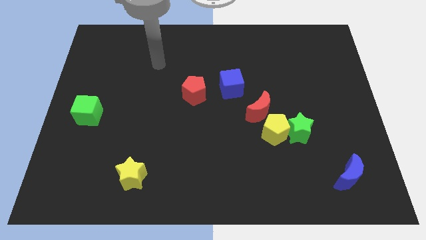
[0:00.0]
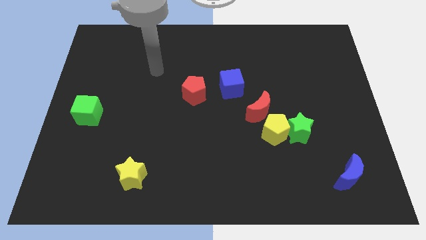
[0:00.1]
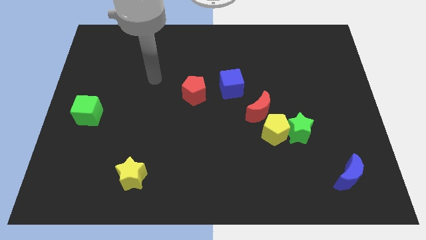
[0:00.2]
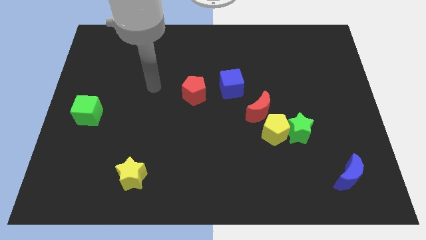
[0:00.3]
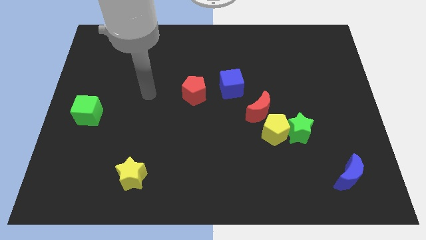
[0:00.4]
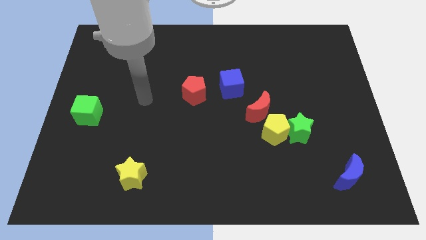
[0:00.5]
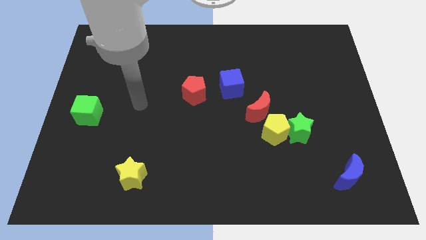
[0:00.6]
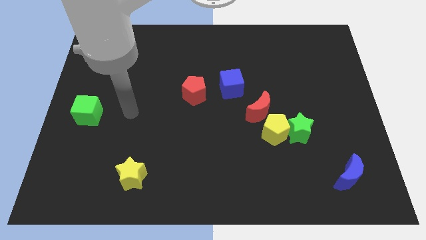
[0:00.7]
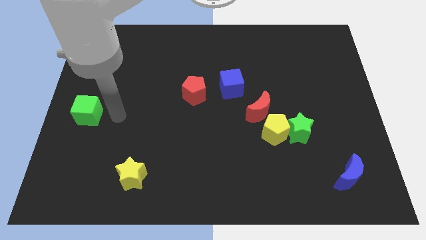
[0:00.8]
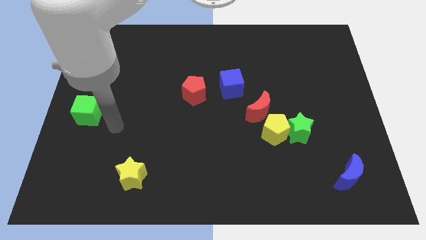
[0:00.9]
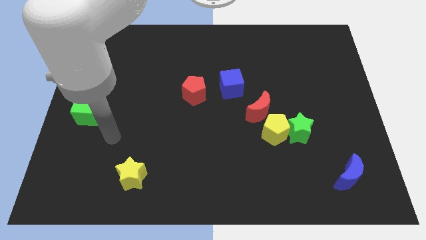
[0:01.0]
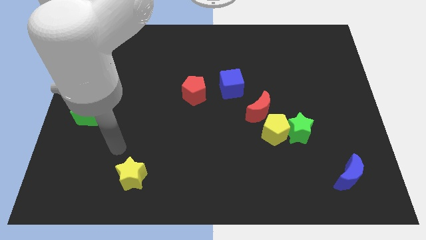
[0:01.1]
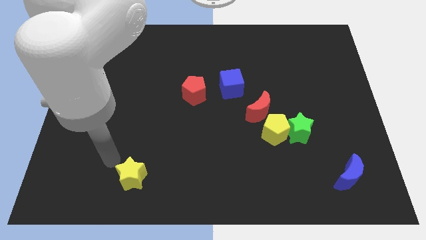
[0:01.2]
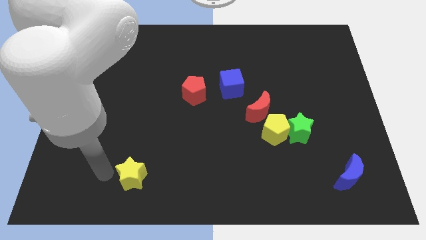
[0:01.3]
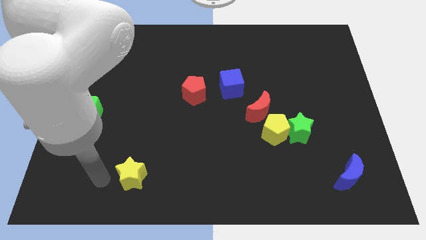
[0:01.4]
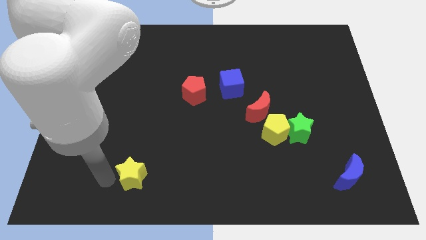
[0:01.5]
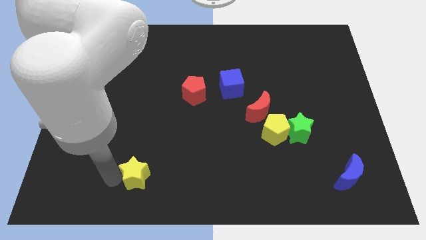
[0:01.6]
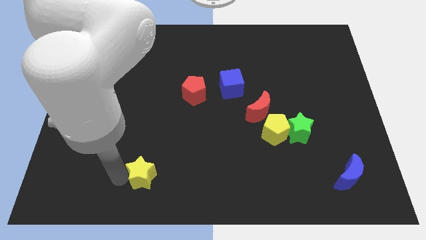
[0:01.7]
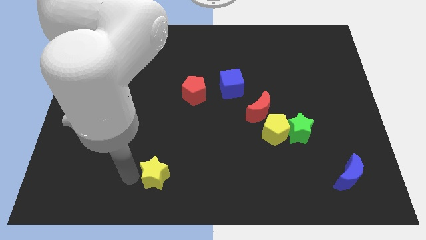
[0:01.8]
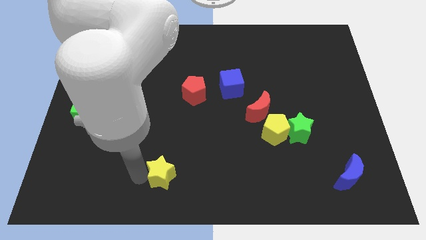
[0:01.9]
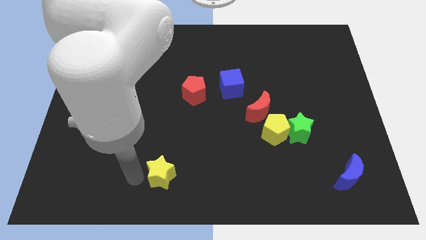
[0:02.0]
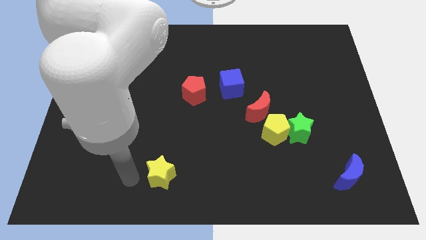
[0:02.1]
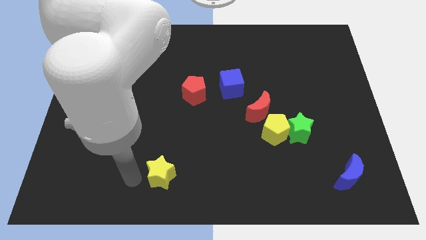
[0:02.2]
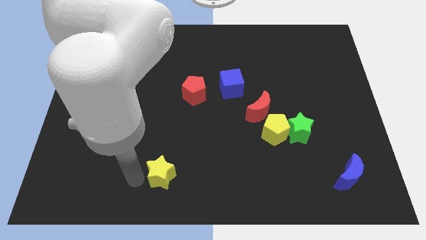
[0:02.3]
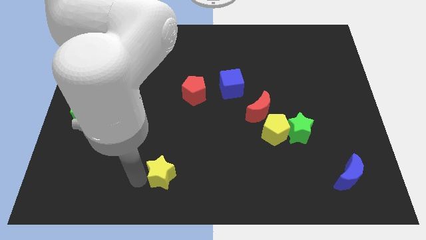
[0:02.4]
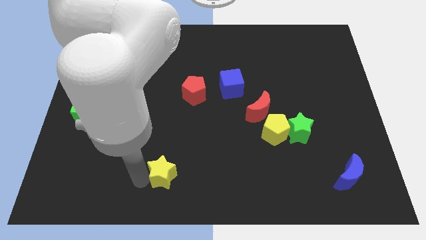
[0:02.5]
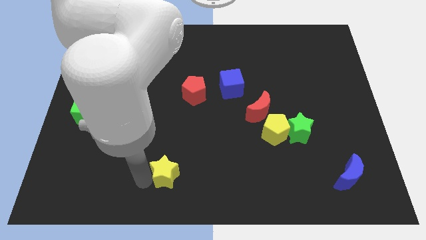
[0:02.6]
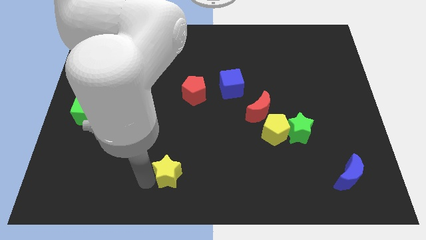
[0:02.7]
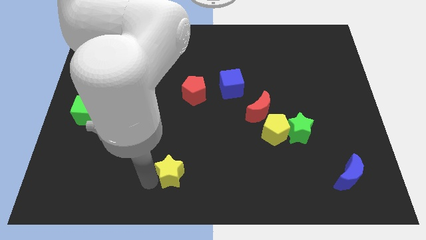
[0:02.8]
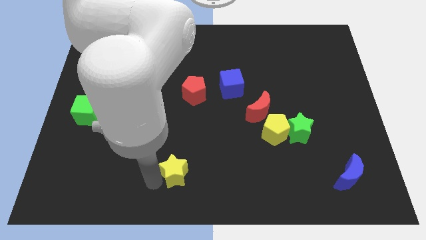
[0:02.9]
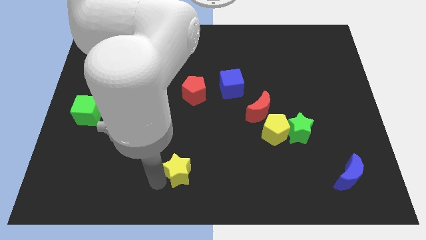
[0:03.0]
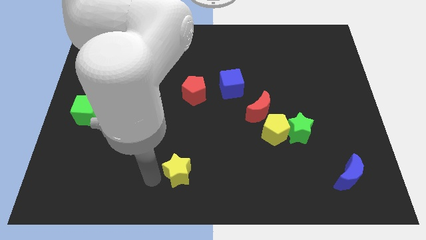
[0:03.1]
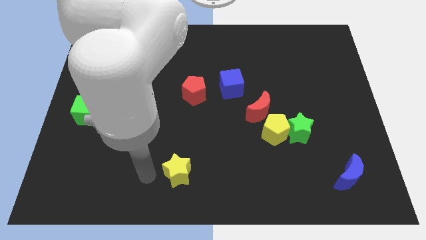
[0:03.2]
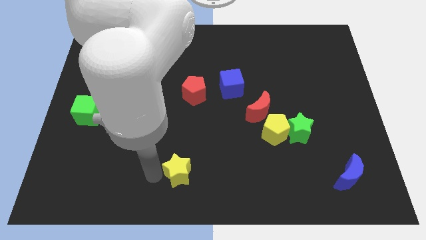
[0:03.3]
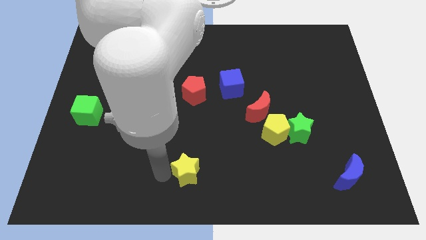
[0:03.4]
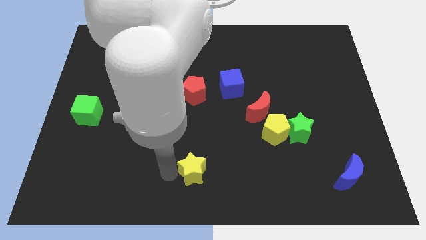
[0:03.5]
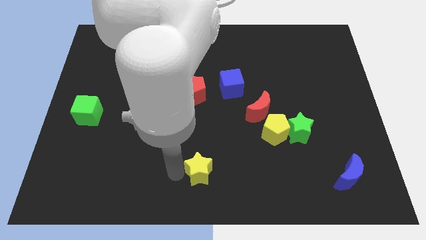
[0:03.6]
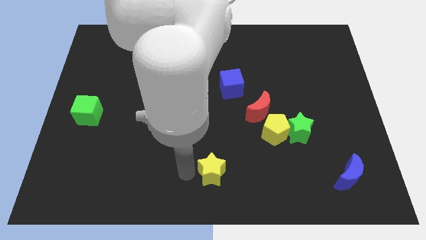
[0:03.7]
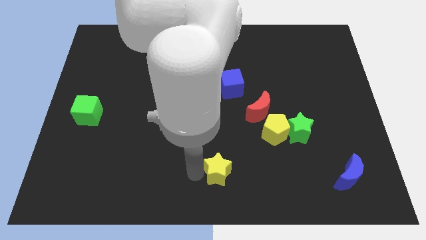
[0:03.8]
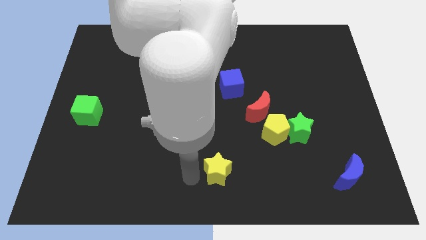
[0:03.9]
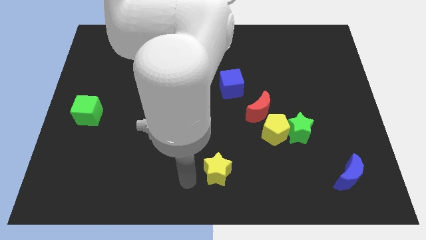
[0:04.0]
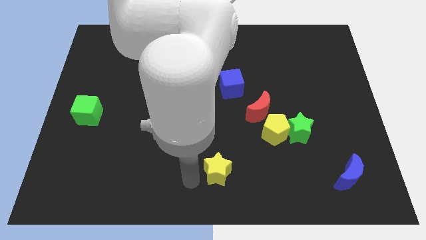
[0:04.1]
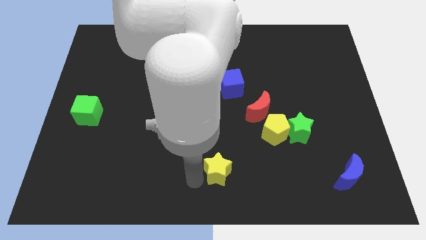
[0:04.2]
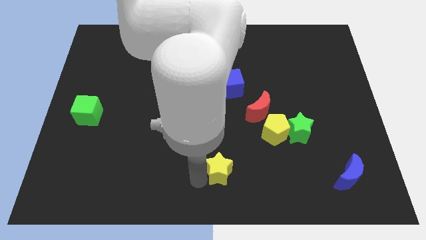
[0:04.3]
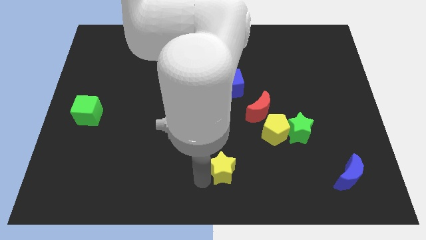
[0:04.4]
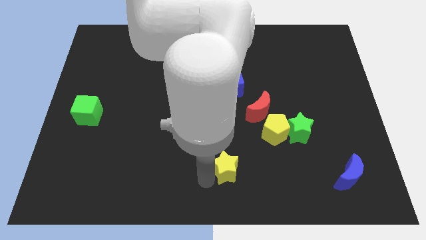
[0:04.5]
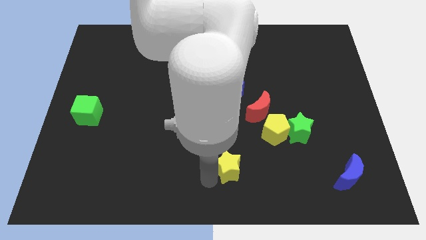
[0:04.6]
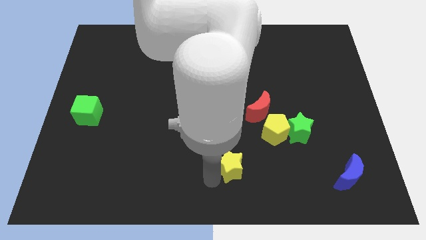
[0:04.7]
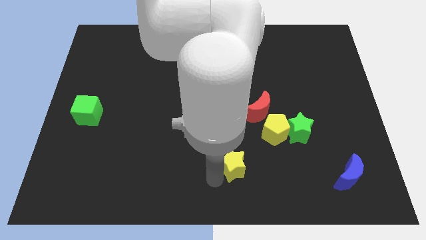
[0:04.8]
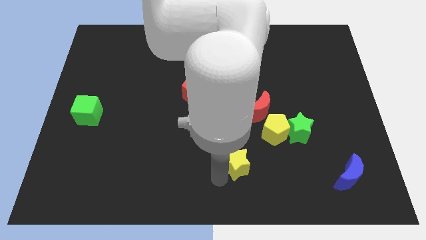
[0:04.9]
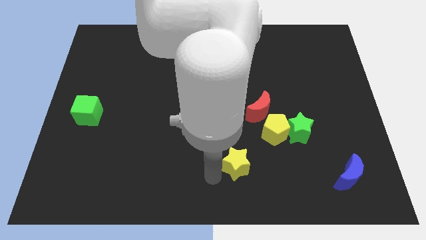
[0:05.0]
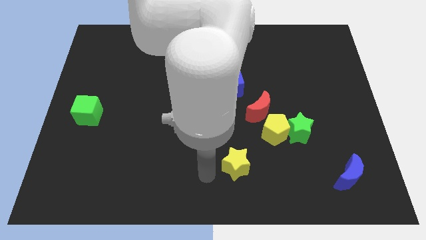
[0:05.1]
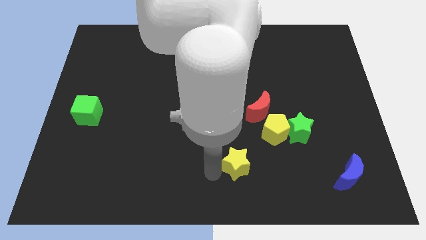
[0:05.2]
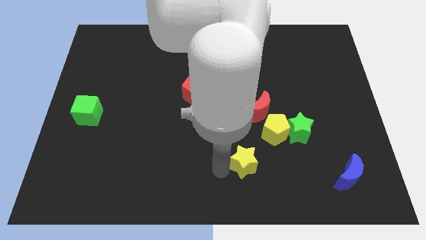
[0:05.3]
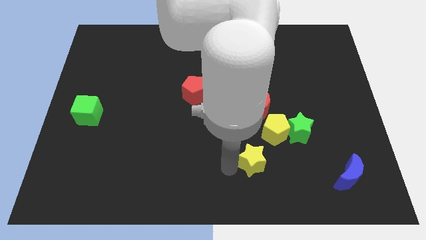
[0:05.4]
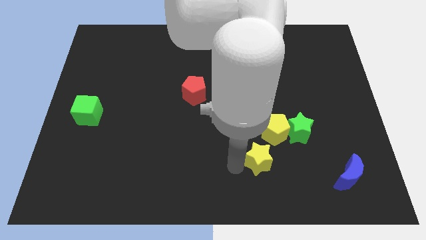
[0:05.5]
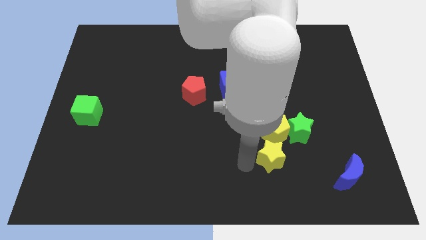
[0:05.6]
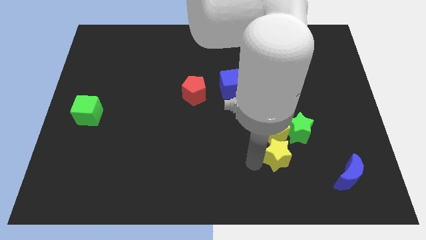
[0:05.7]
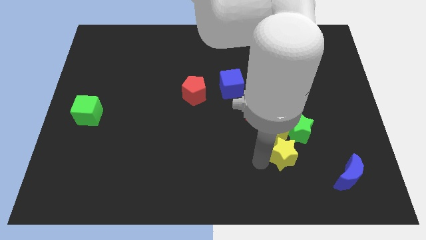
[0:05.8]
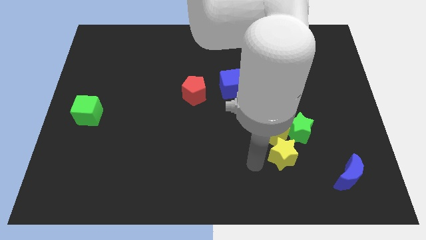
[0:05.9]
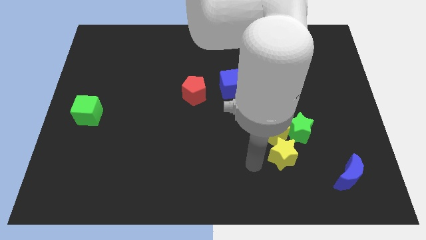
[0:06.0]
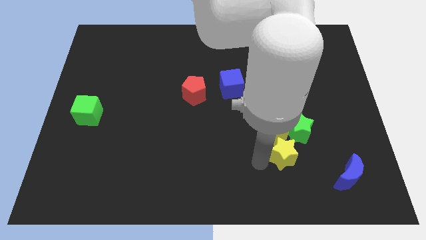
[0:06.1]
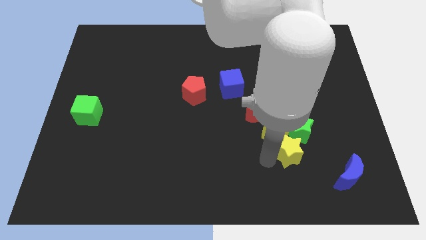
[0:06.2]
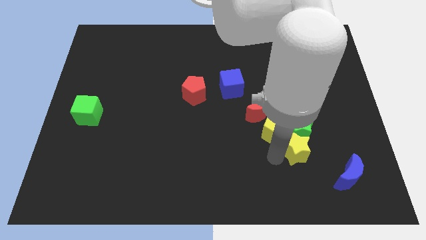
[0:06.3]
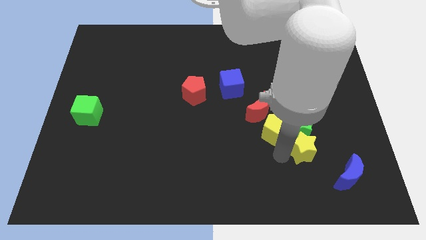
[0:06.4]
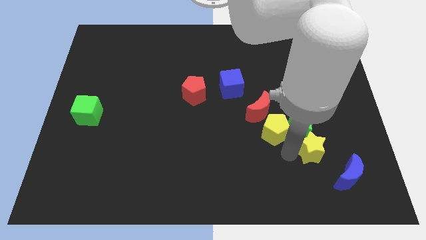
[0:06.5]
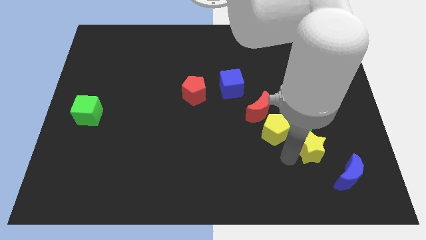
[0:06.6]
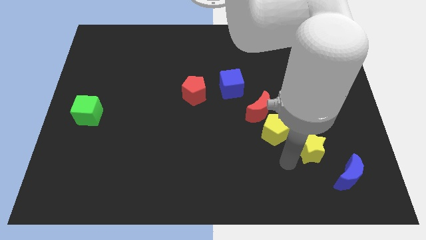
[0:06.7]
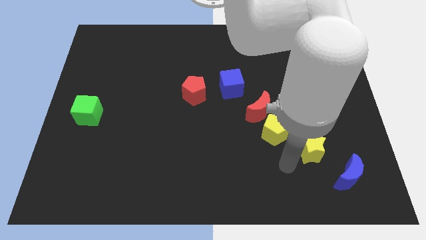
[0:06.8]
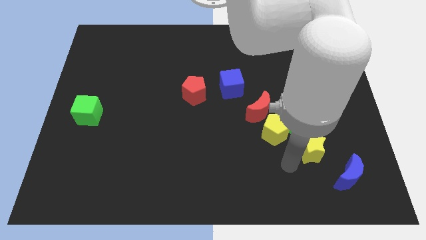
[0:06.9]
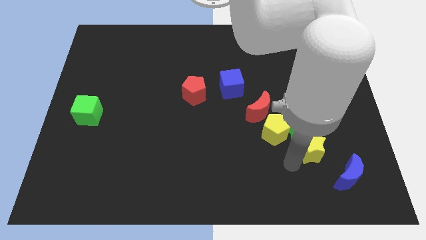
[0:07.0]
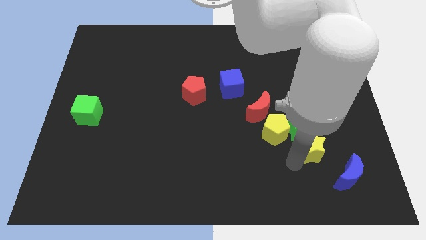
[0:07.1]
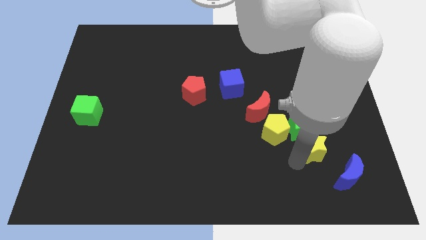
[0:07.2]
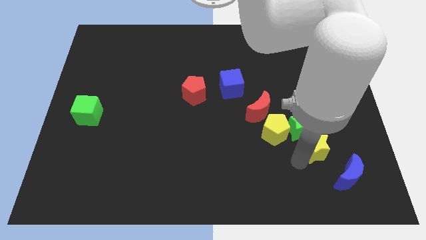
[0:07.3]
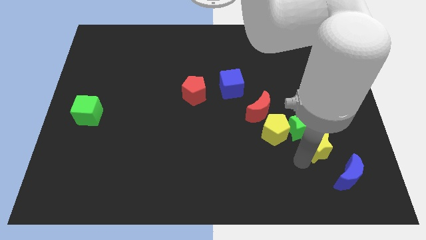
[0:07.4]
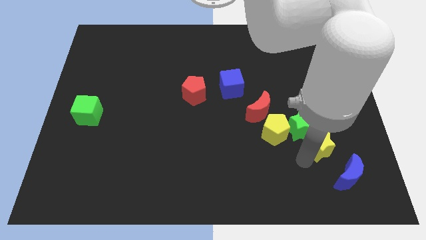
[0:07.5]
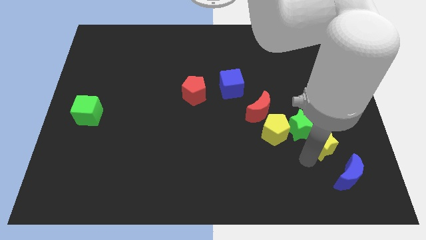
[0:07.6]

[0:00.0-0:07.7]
move the yellow star to the top of the blue moon
